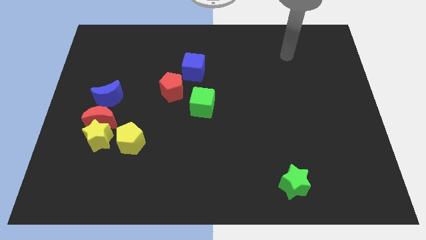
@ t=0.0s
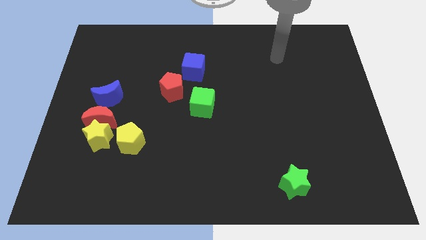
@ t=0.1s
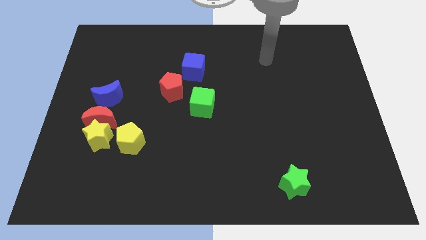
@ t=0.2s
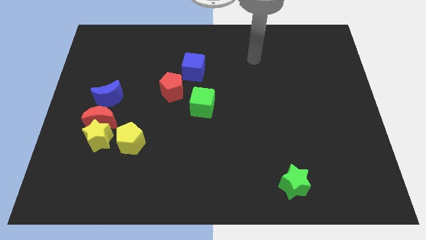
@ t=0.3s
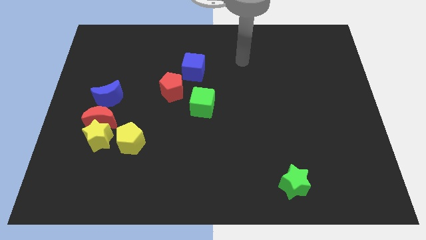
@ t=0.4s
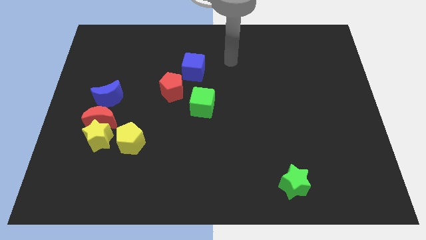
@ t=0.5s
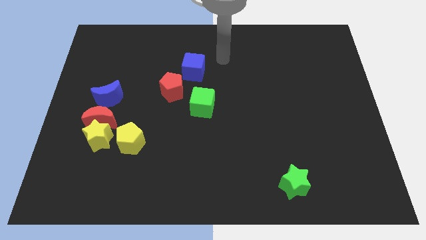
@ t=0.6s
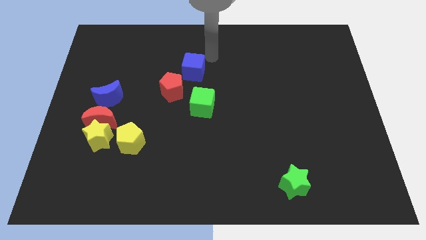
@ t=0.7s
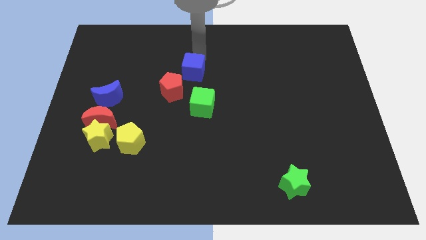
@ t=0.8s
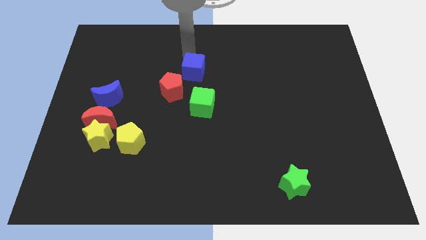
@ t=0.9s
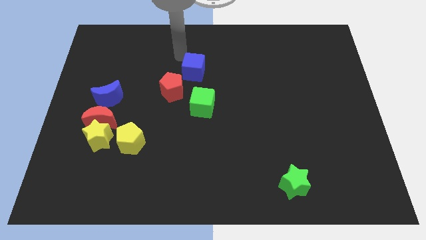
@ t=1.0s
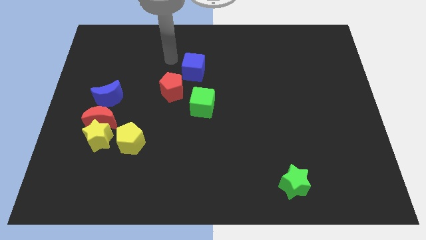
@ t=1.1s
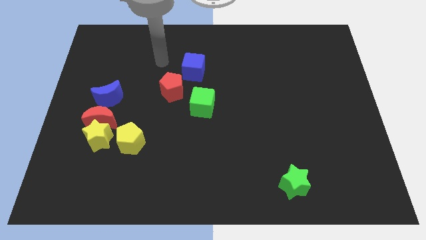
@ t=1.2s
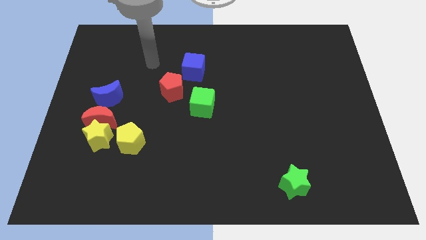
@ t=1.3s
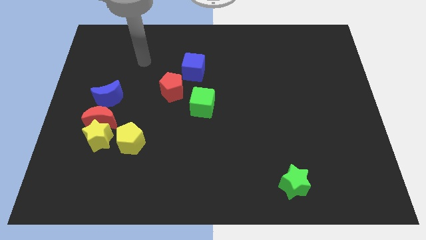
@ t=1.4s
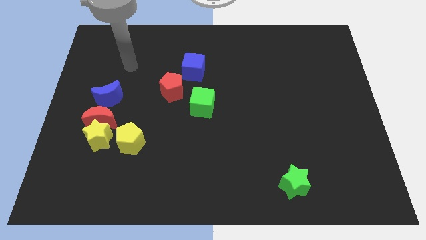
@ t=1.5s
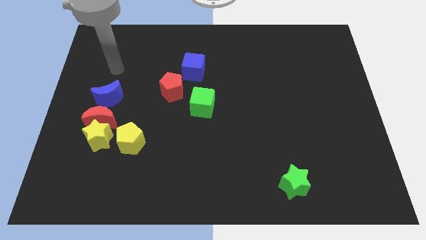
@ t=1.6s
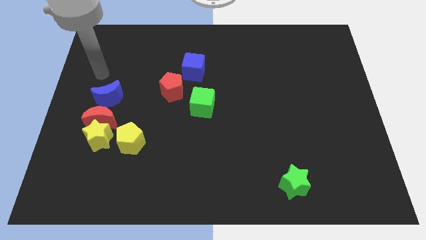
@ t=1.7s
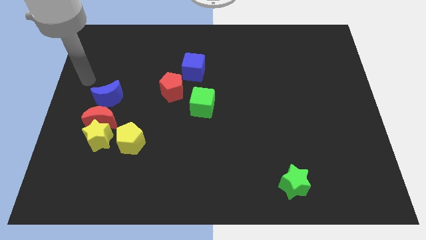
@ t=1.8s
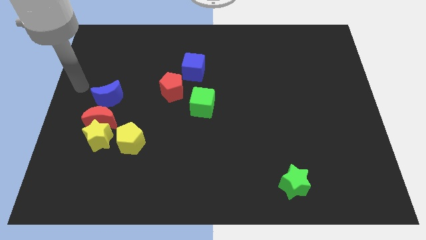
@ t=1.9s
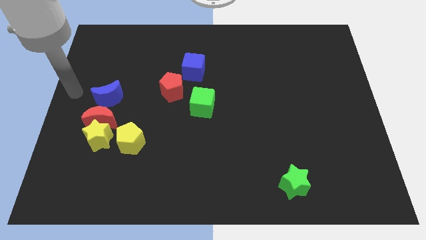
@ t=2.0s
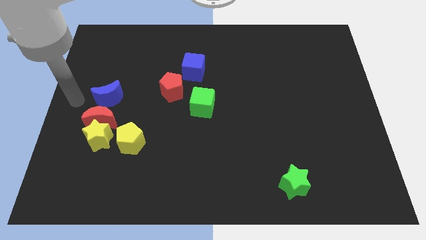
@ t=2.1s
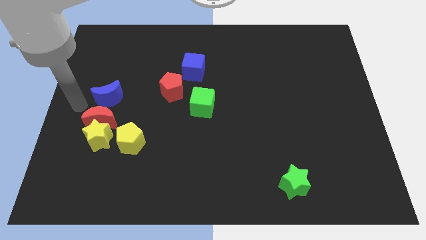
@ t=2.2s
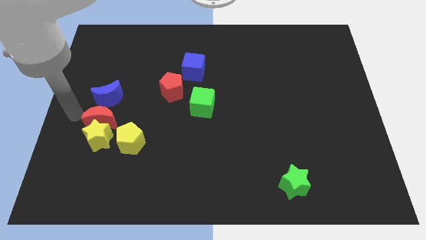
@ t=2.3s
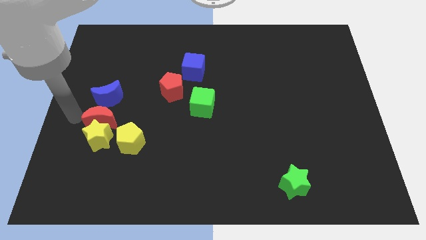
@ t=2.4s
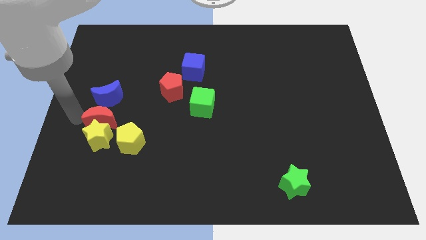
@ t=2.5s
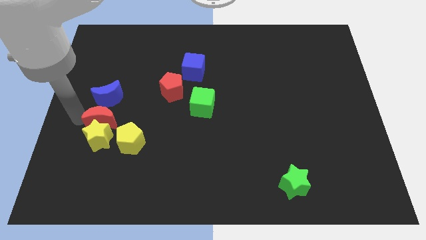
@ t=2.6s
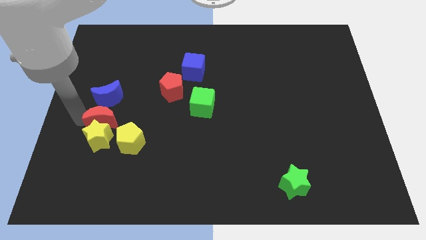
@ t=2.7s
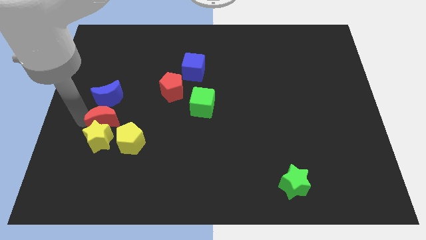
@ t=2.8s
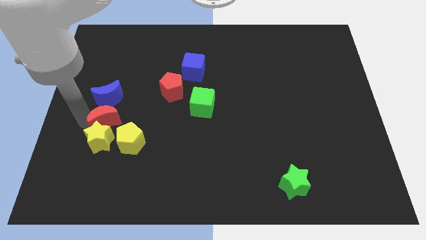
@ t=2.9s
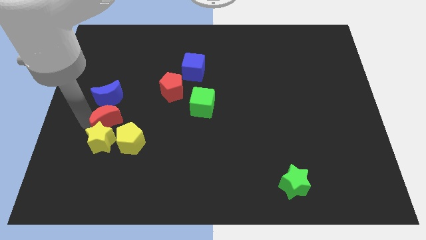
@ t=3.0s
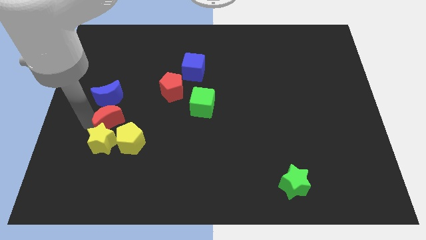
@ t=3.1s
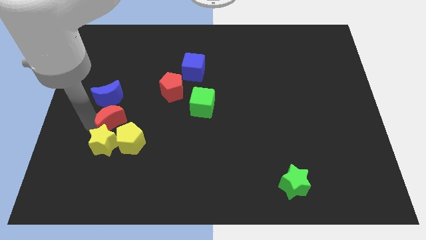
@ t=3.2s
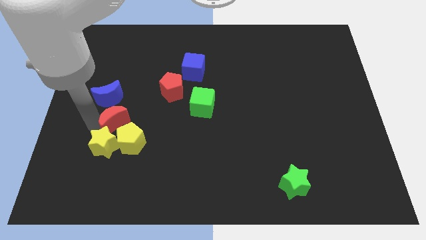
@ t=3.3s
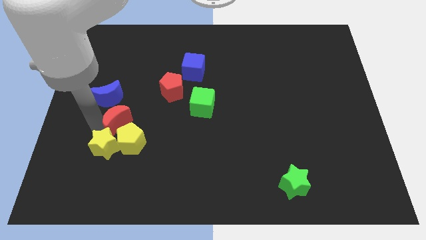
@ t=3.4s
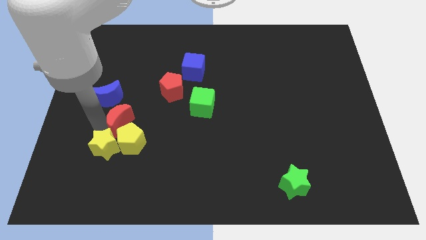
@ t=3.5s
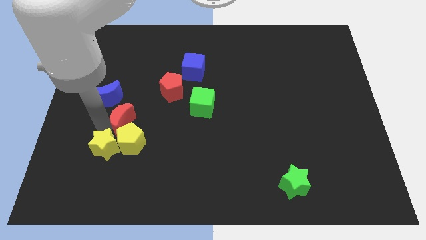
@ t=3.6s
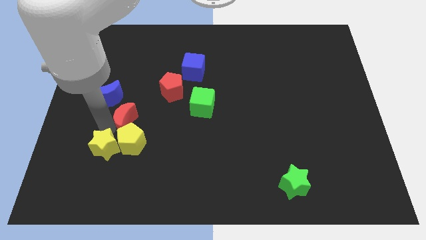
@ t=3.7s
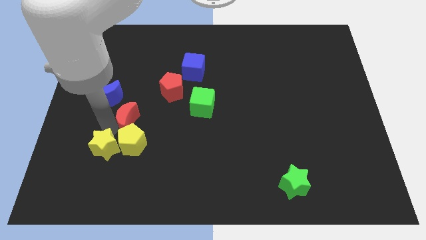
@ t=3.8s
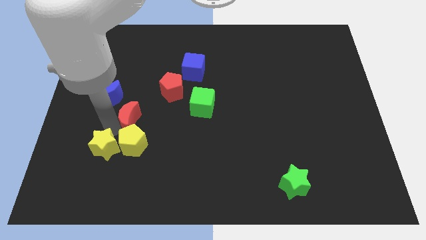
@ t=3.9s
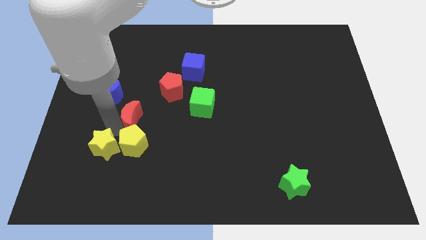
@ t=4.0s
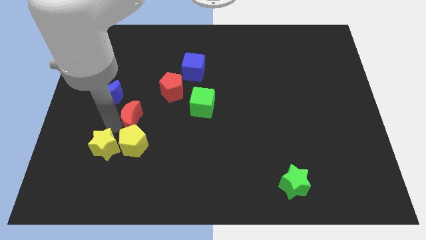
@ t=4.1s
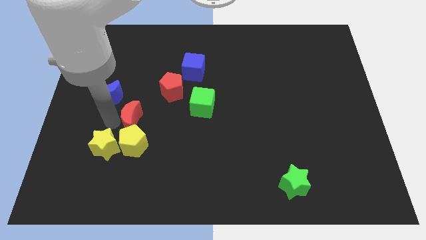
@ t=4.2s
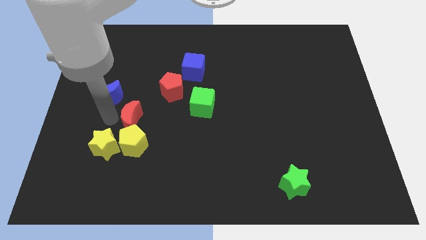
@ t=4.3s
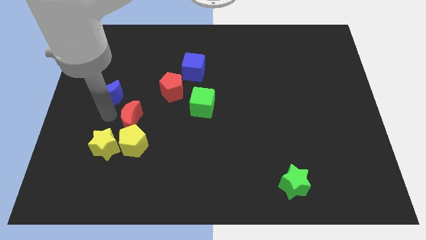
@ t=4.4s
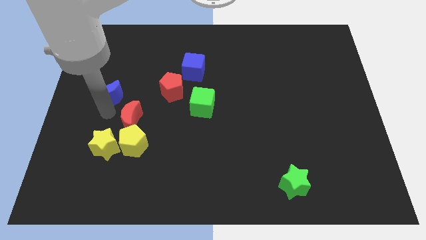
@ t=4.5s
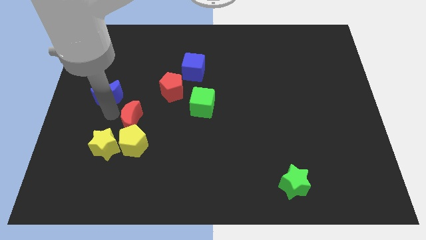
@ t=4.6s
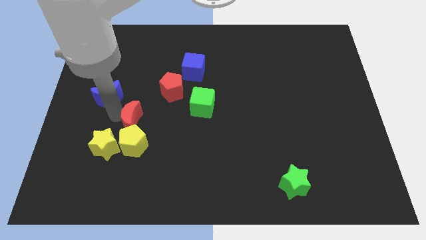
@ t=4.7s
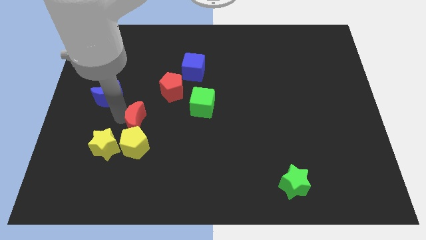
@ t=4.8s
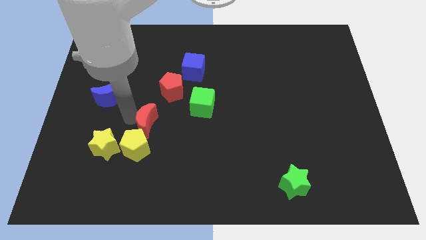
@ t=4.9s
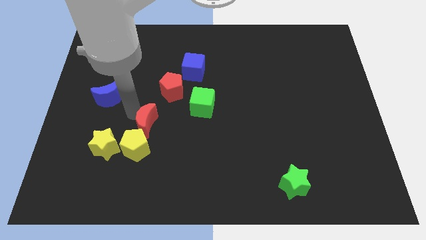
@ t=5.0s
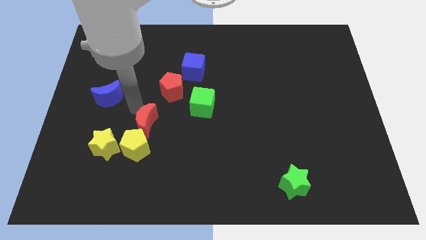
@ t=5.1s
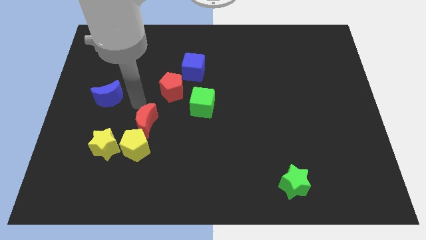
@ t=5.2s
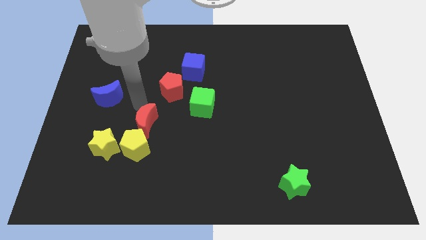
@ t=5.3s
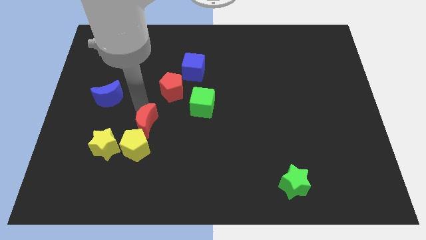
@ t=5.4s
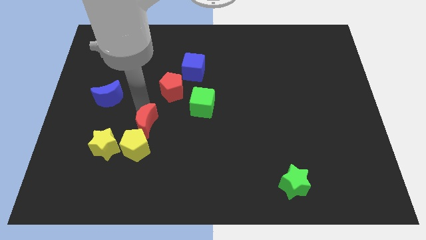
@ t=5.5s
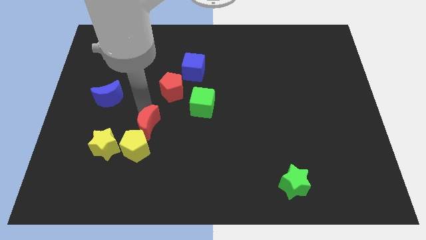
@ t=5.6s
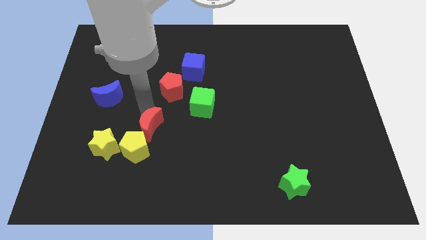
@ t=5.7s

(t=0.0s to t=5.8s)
push the red moon somewhat downwards and then right

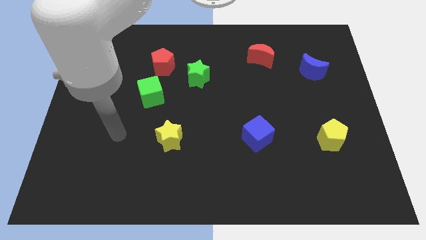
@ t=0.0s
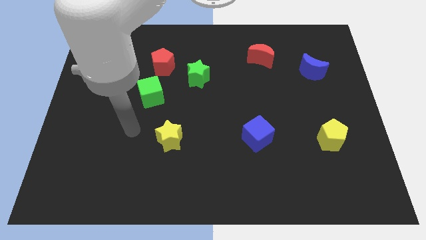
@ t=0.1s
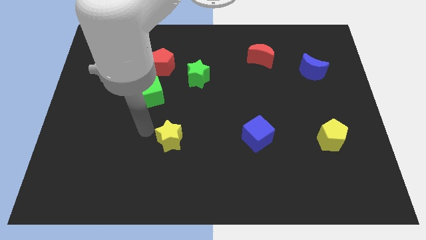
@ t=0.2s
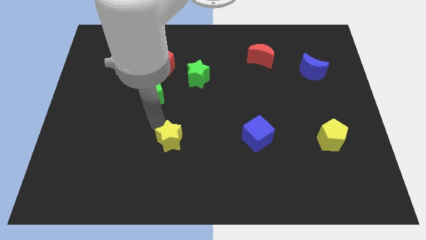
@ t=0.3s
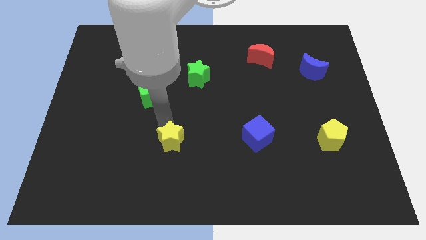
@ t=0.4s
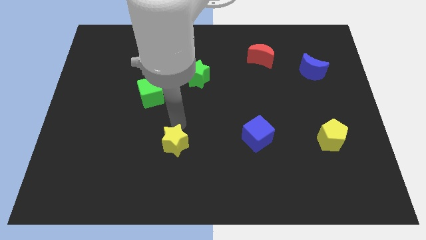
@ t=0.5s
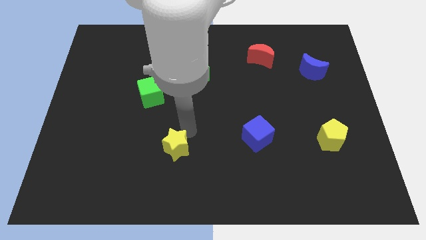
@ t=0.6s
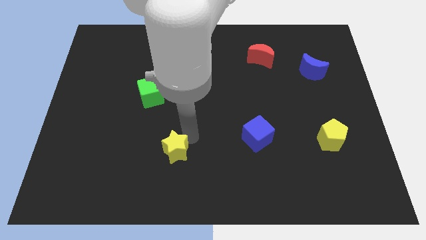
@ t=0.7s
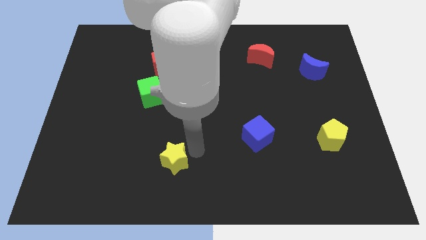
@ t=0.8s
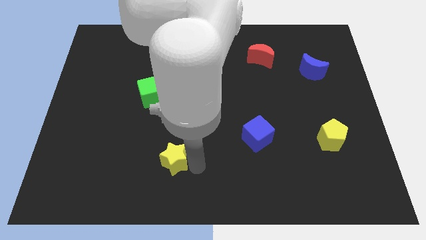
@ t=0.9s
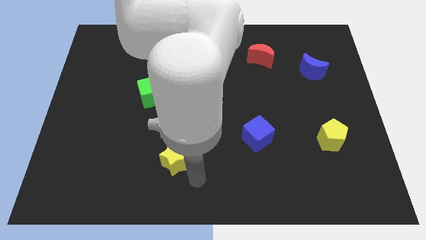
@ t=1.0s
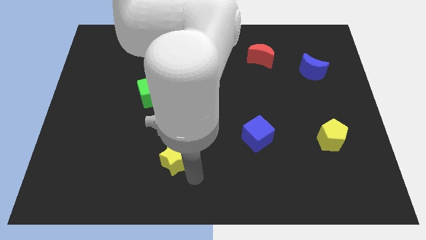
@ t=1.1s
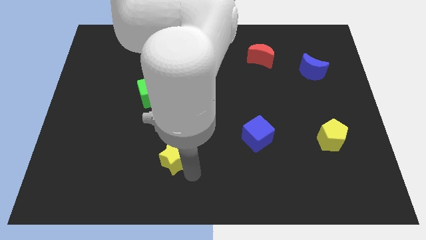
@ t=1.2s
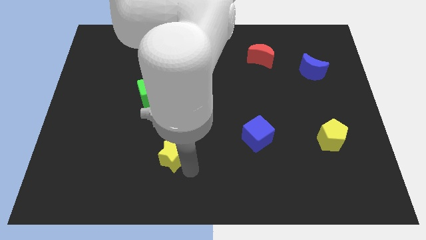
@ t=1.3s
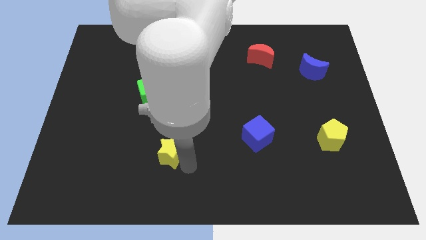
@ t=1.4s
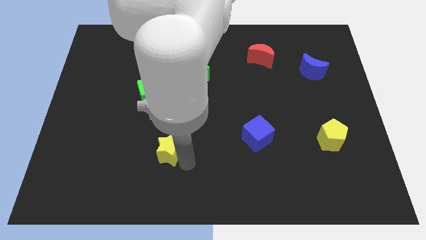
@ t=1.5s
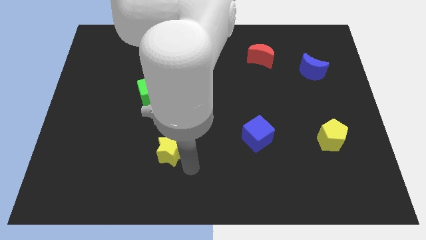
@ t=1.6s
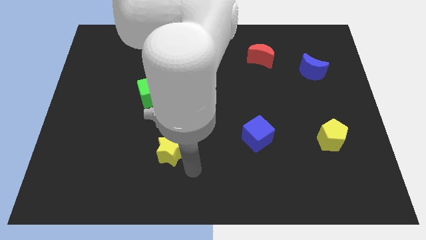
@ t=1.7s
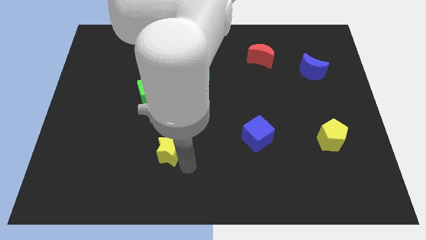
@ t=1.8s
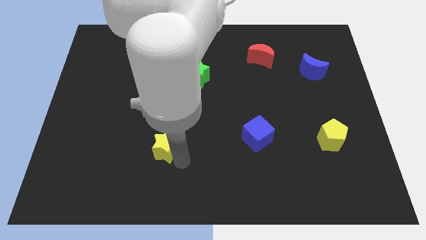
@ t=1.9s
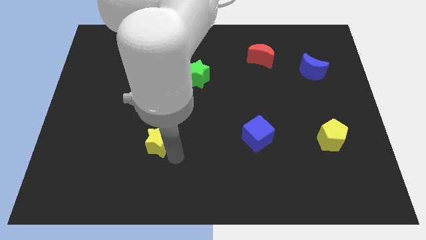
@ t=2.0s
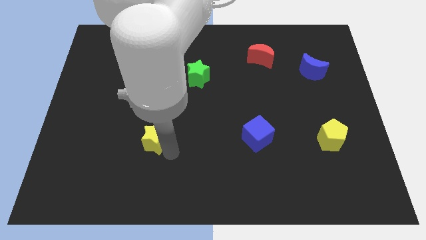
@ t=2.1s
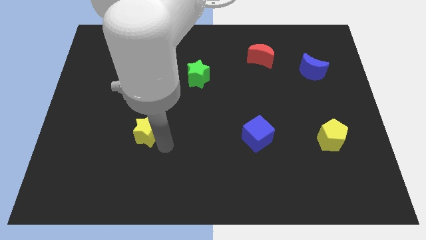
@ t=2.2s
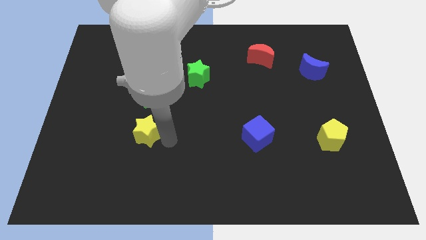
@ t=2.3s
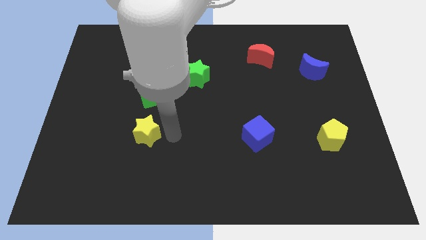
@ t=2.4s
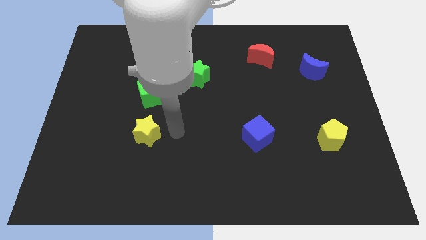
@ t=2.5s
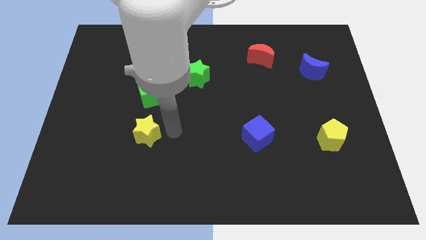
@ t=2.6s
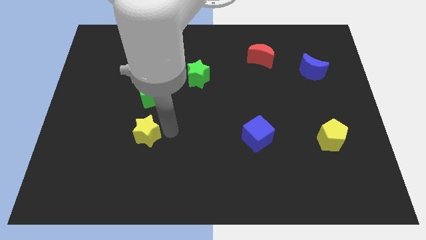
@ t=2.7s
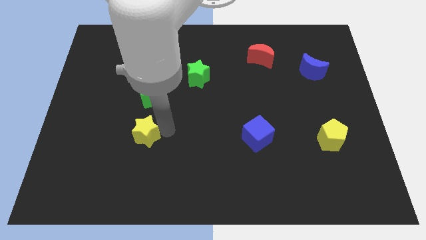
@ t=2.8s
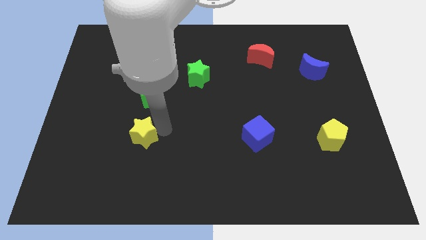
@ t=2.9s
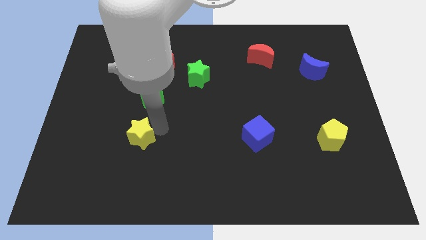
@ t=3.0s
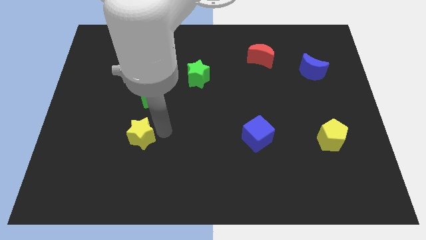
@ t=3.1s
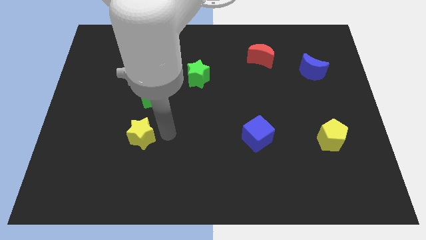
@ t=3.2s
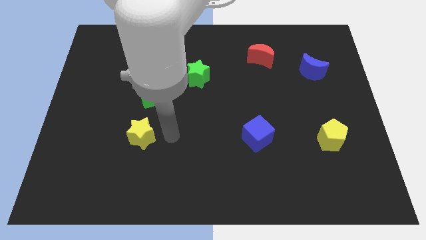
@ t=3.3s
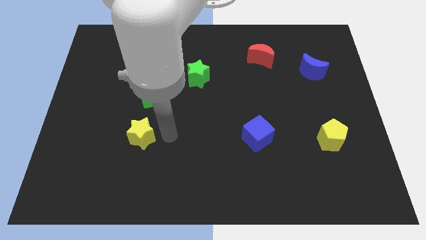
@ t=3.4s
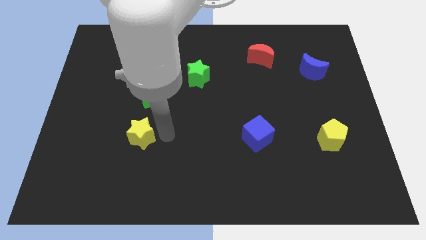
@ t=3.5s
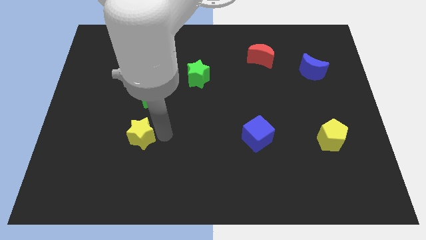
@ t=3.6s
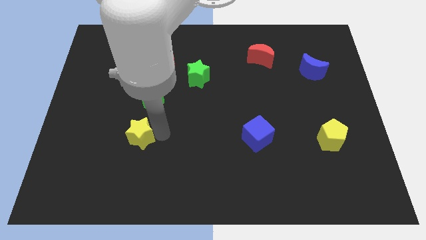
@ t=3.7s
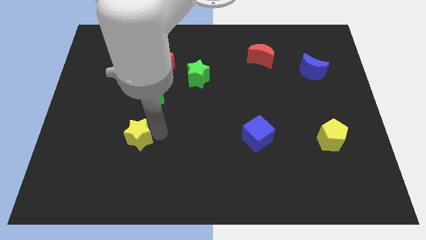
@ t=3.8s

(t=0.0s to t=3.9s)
slightly push the yellow star left
